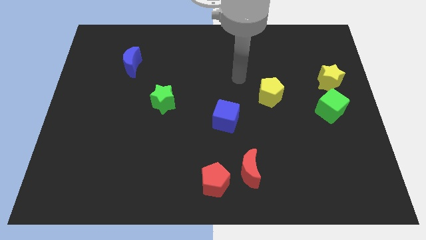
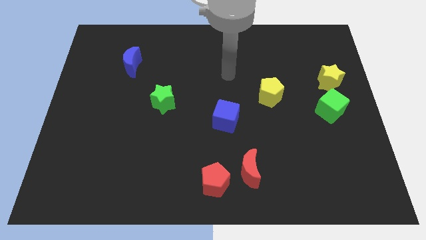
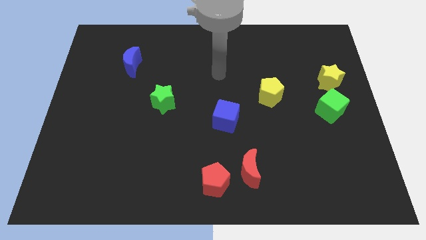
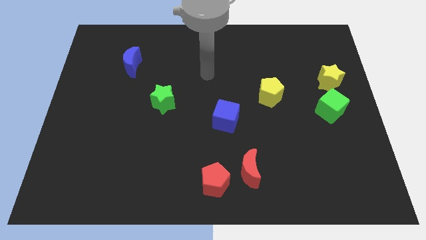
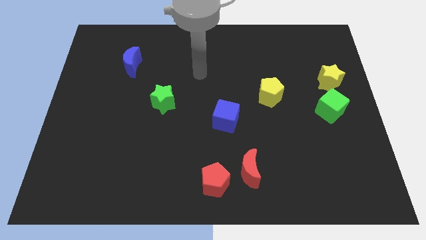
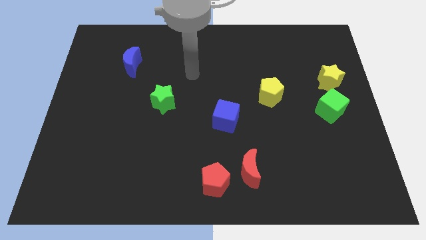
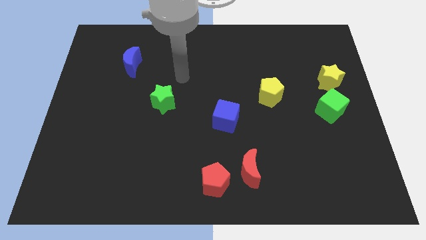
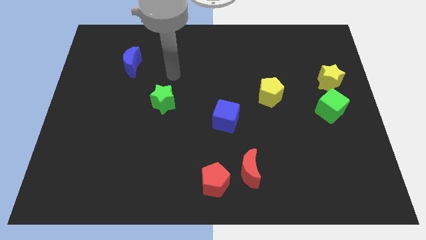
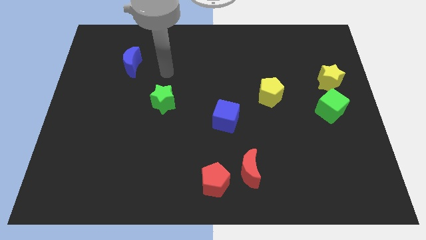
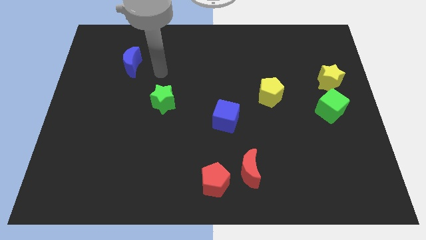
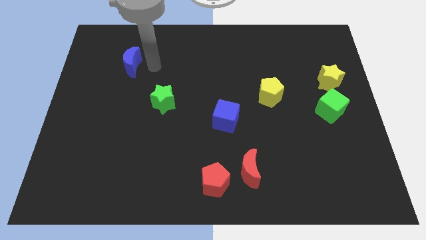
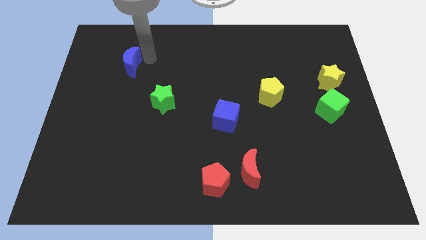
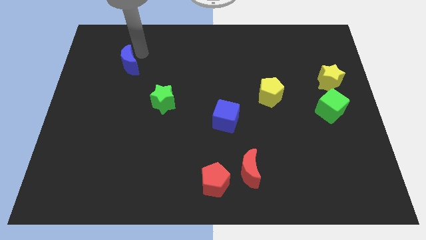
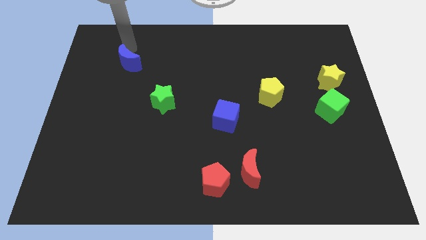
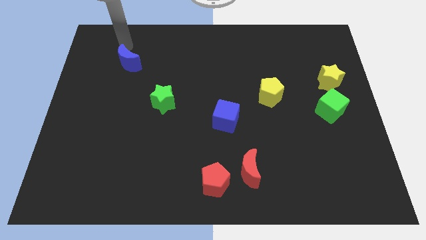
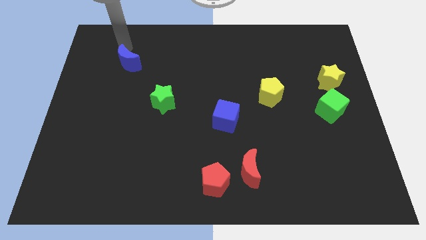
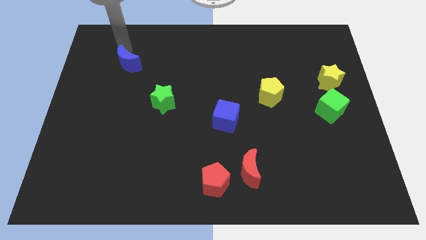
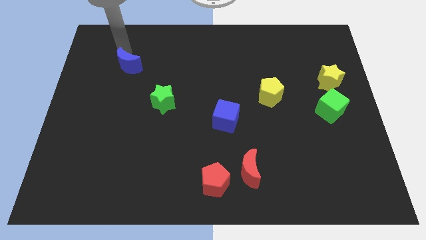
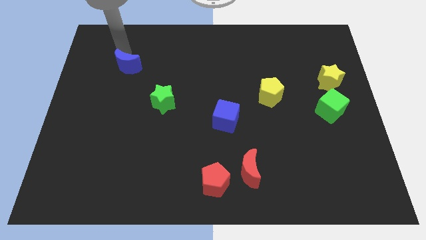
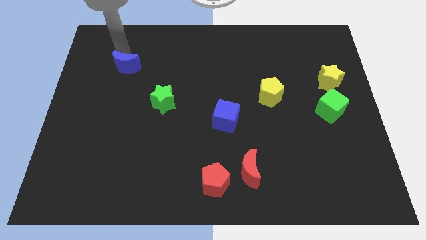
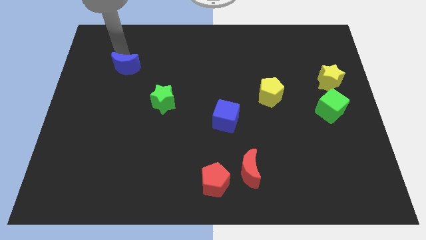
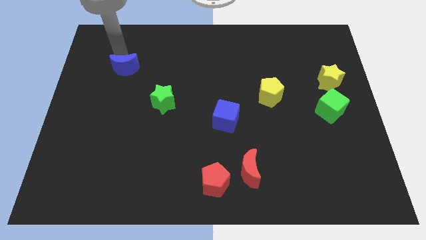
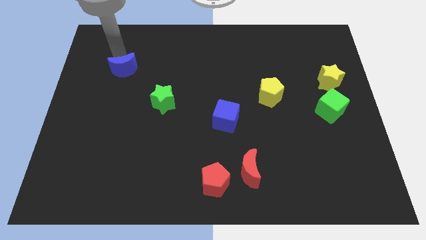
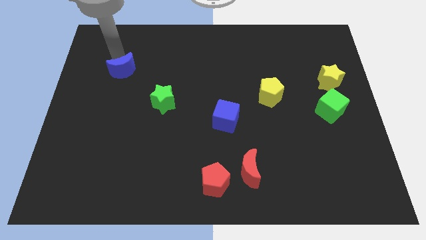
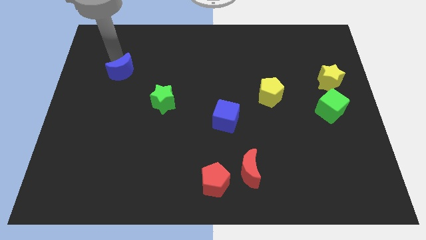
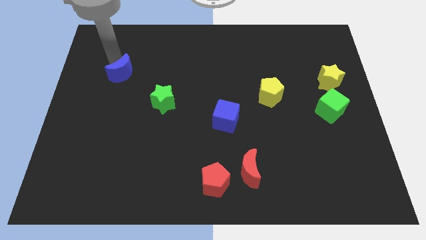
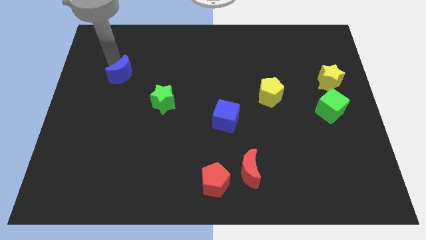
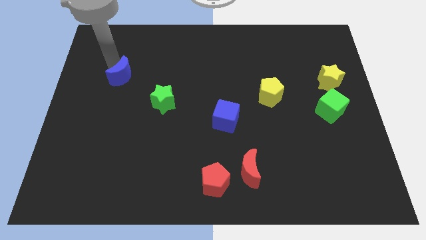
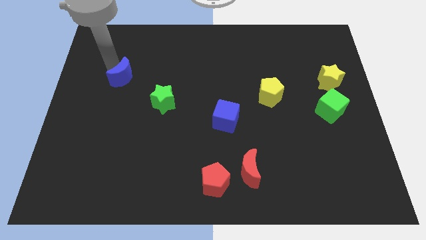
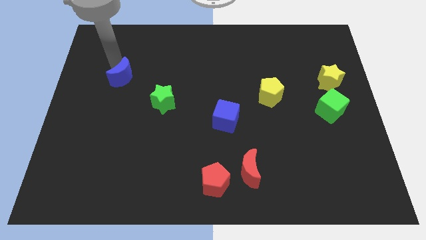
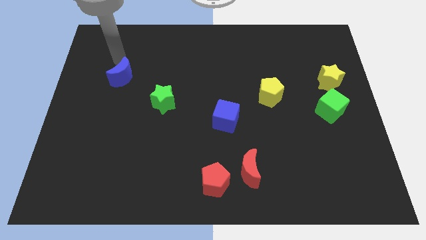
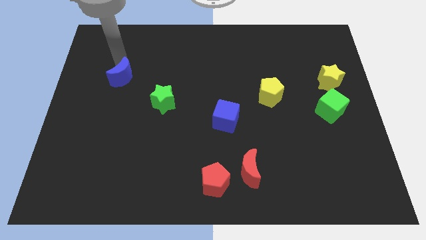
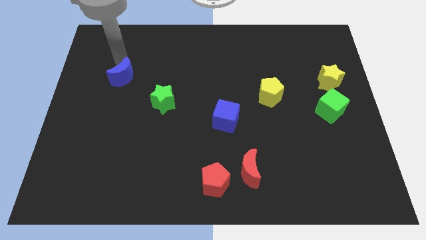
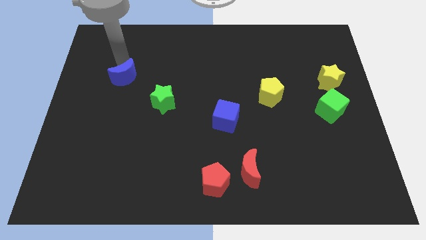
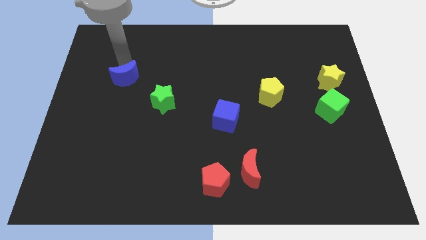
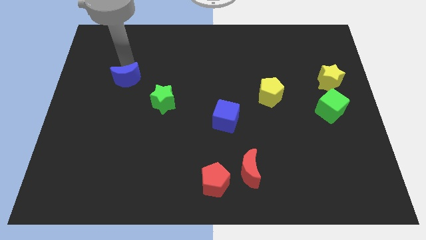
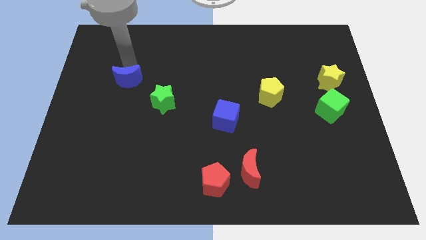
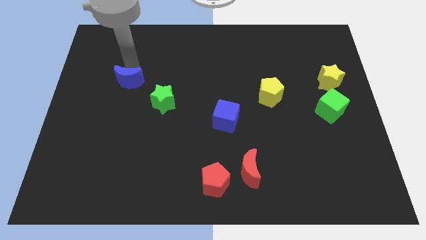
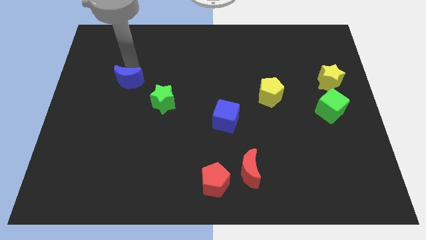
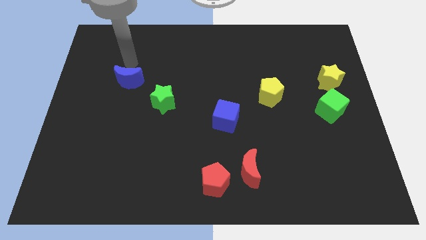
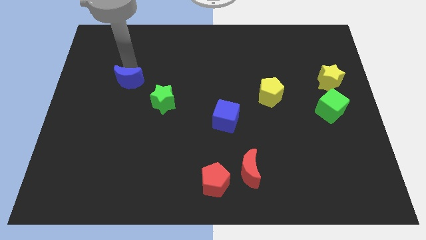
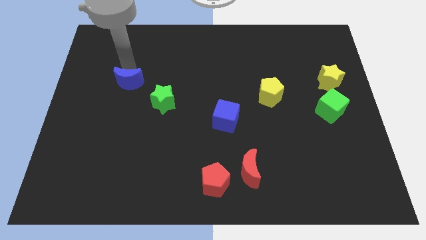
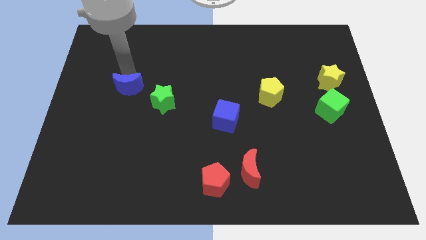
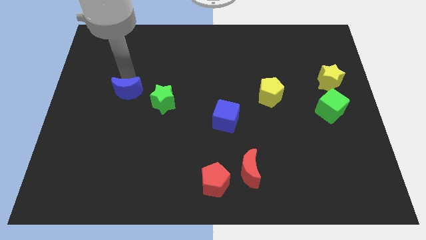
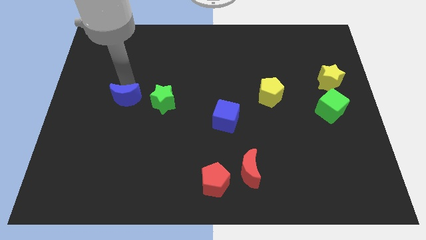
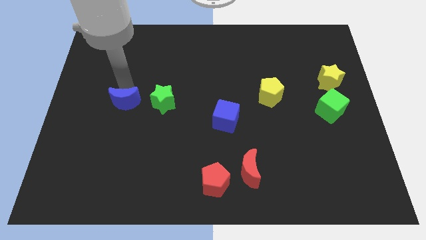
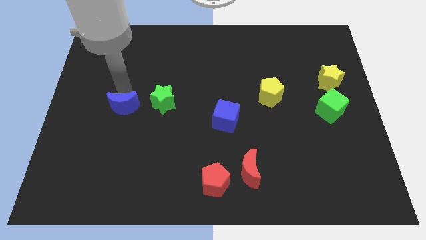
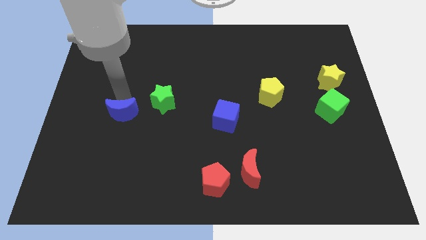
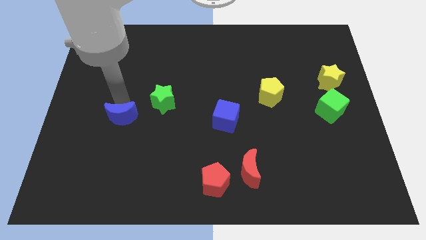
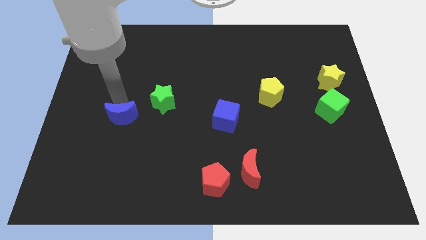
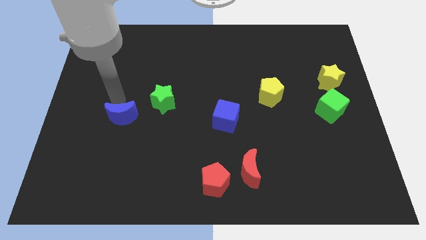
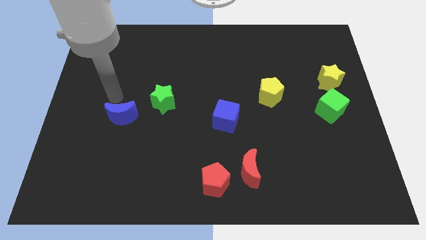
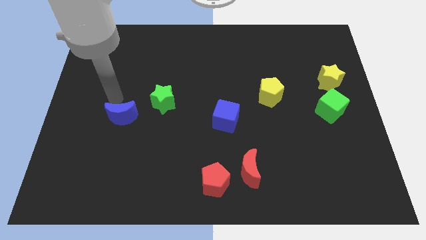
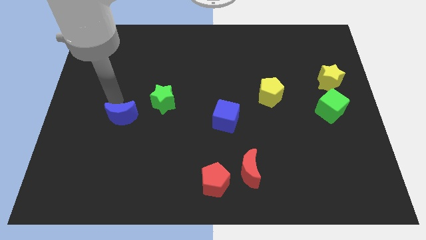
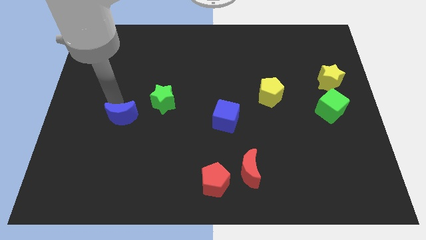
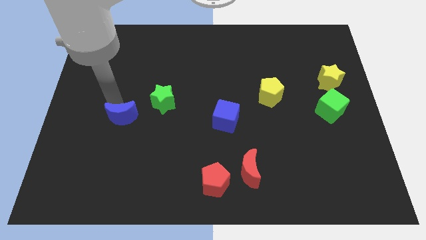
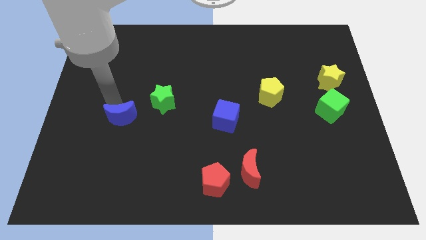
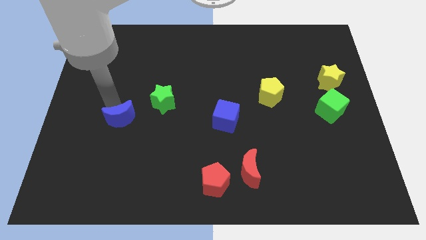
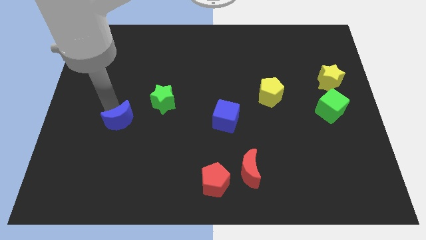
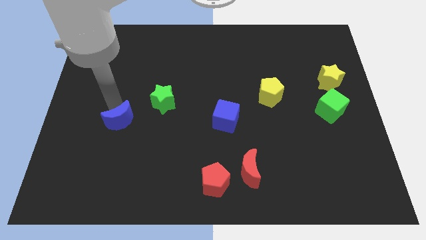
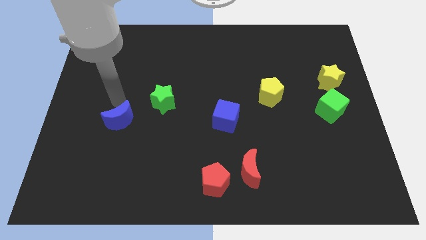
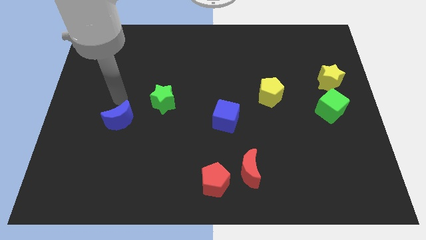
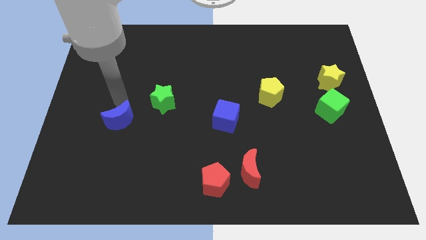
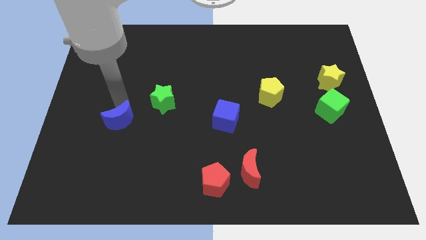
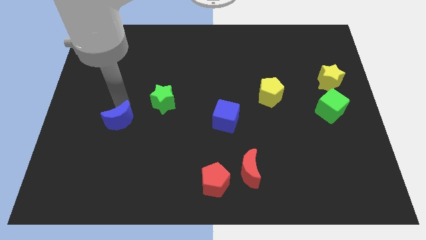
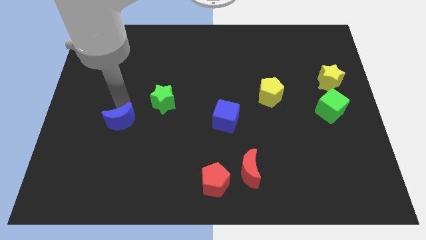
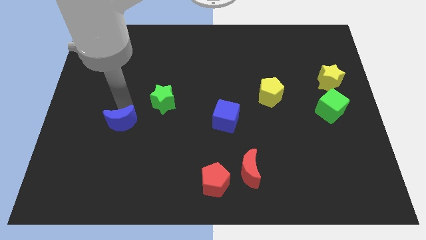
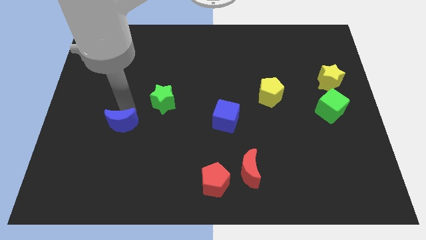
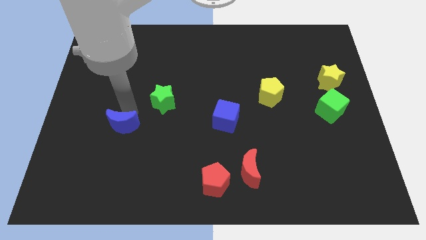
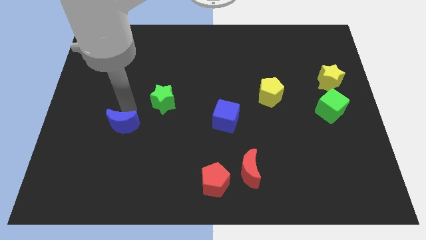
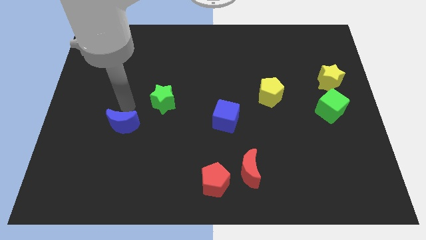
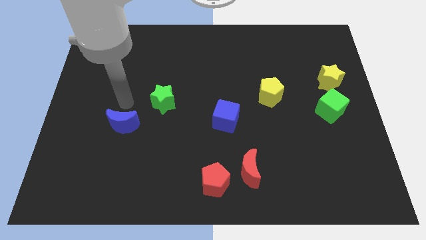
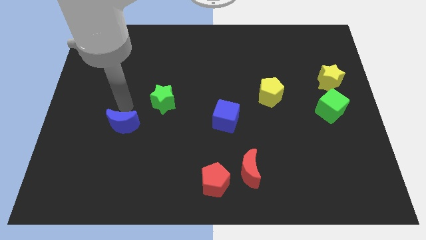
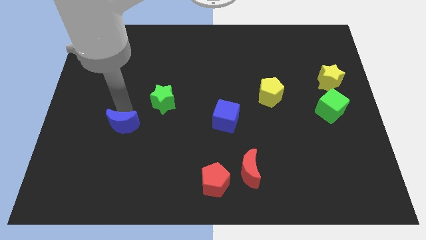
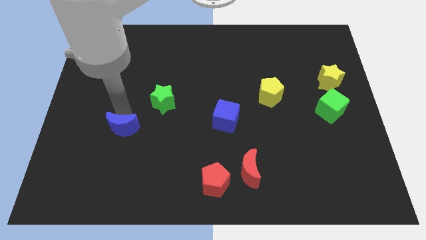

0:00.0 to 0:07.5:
slide the blue moon down

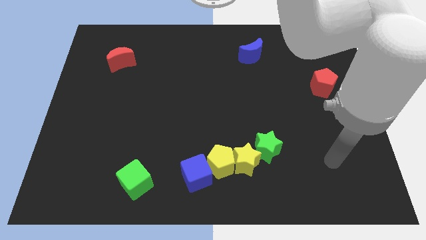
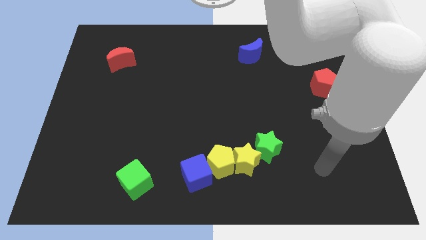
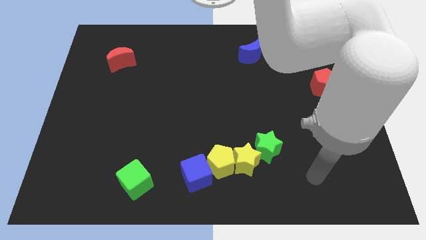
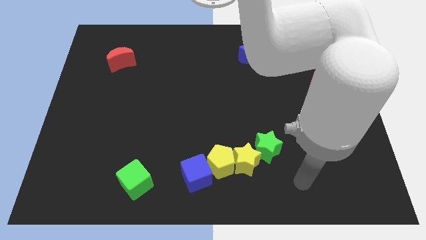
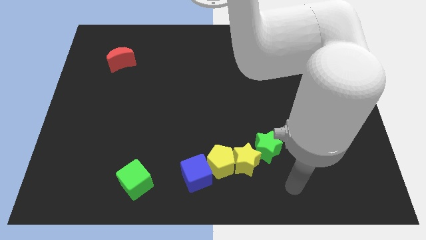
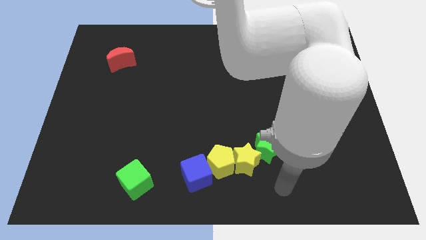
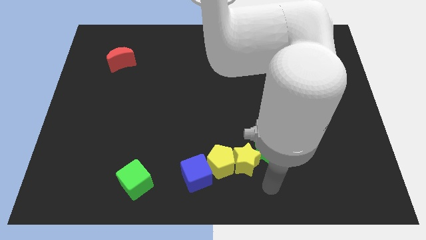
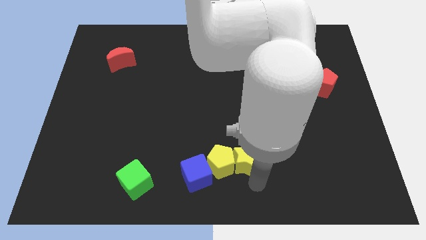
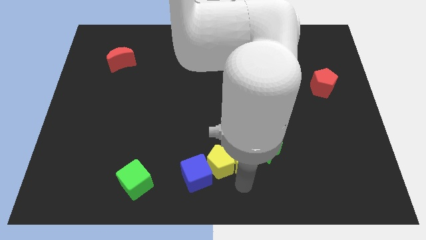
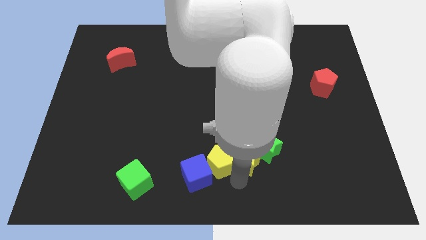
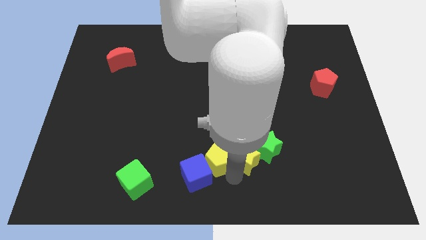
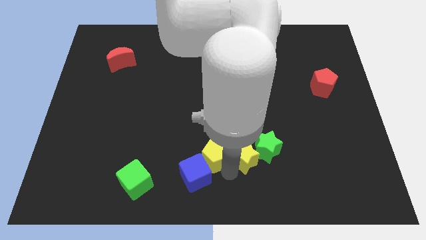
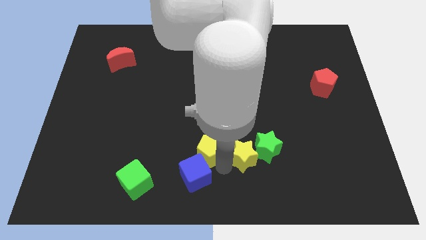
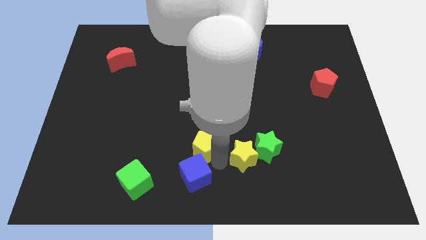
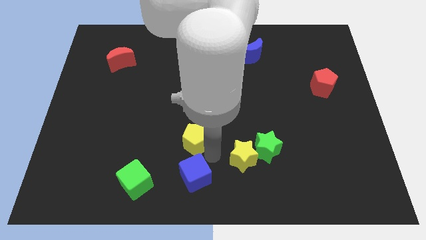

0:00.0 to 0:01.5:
move the yellow pentagon slightly up and left
